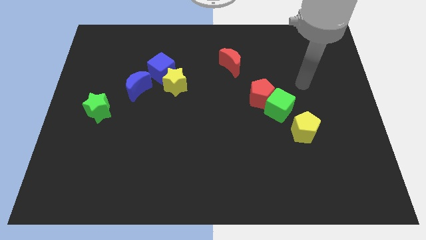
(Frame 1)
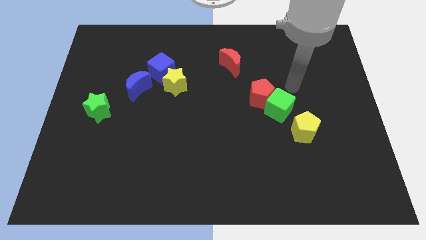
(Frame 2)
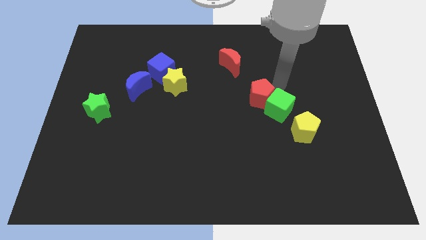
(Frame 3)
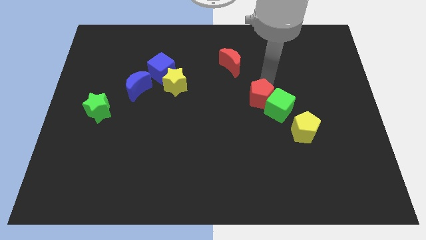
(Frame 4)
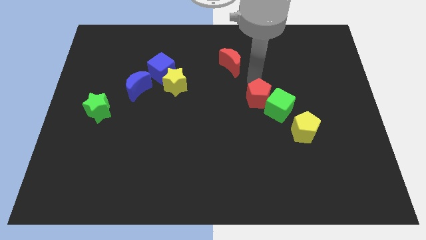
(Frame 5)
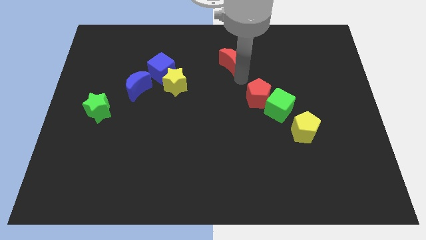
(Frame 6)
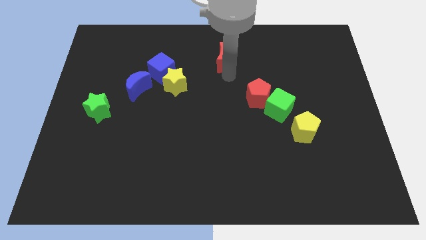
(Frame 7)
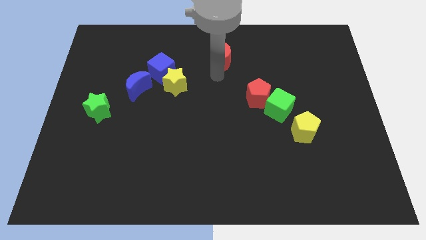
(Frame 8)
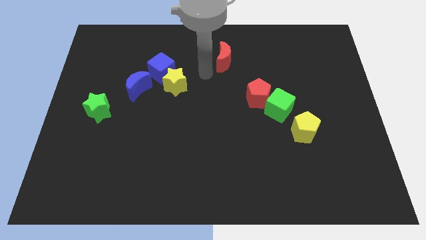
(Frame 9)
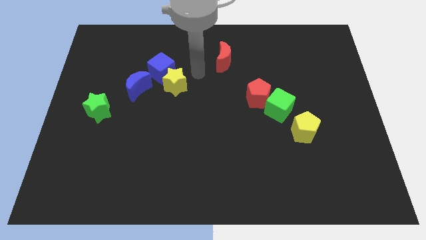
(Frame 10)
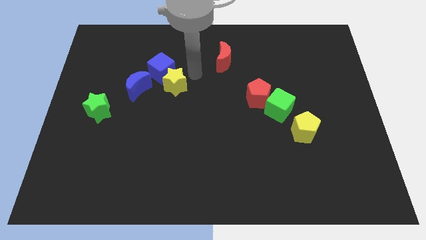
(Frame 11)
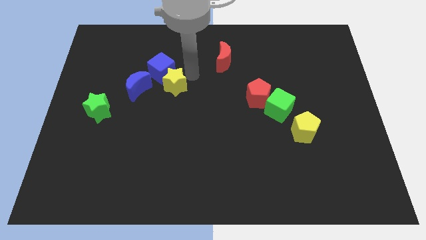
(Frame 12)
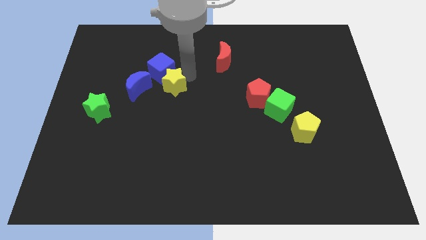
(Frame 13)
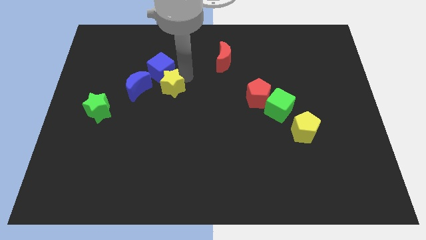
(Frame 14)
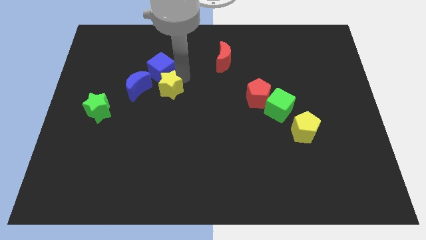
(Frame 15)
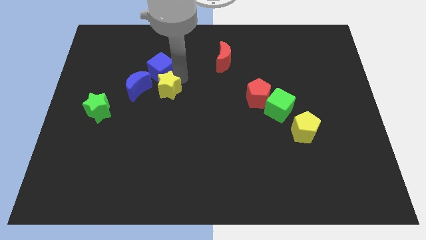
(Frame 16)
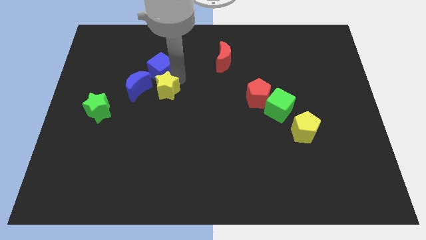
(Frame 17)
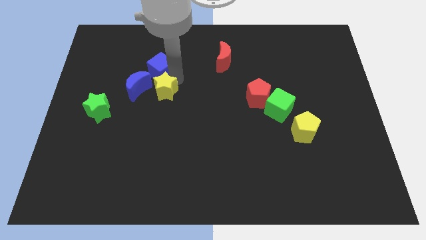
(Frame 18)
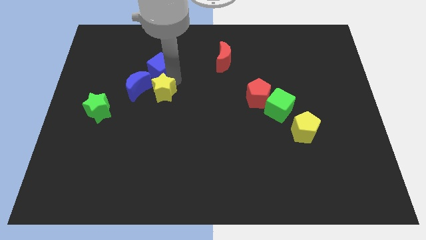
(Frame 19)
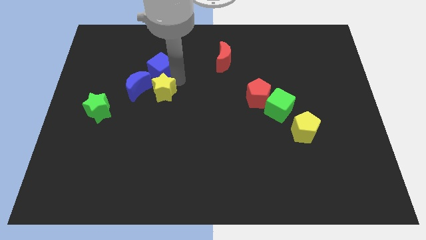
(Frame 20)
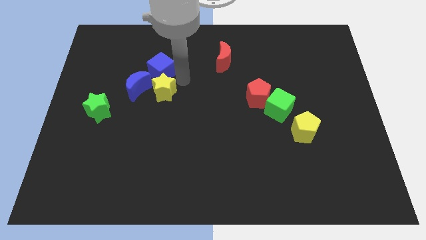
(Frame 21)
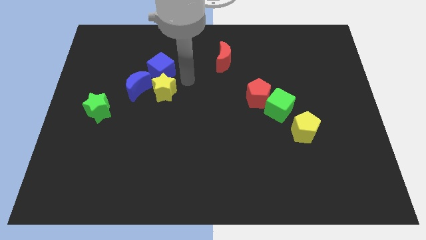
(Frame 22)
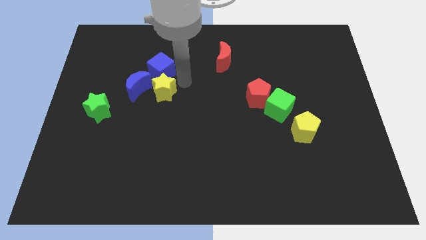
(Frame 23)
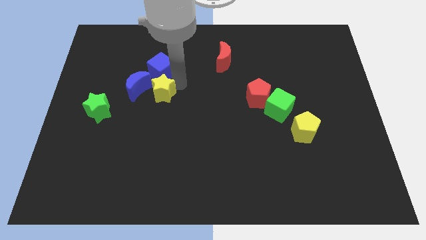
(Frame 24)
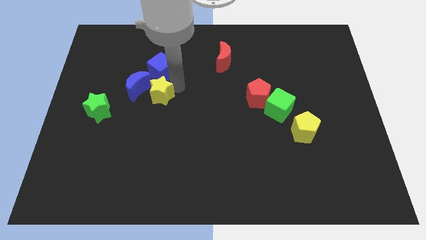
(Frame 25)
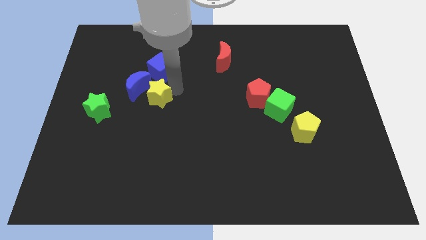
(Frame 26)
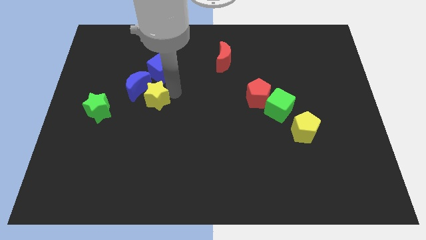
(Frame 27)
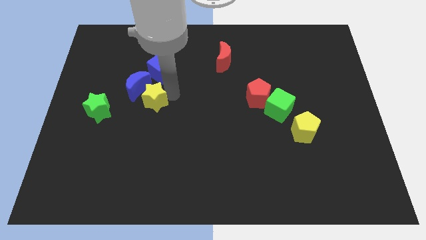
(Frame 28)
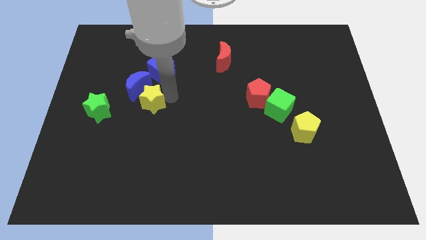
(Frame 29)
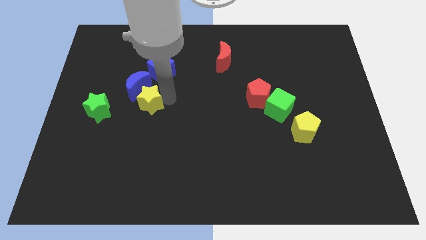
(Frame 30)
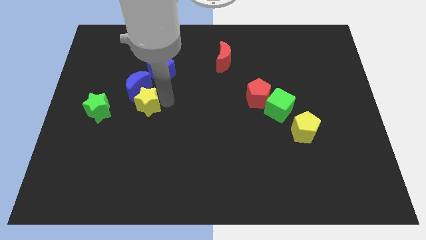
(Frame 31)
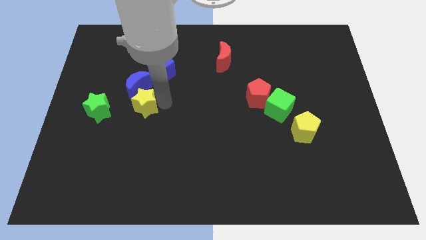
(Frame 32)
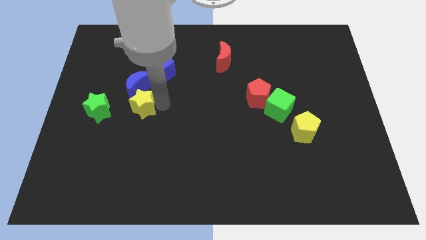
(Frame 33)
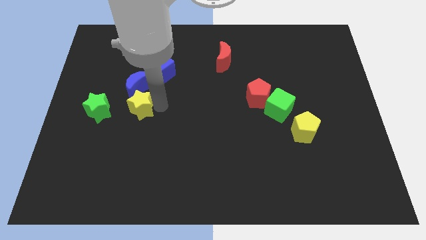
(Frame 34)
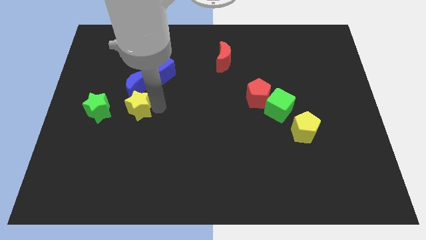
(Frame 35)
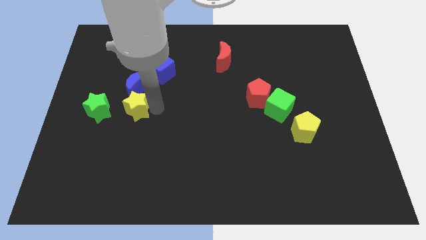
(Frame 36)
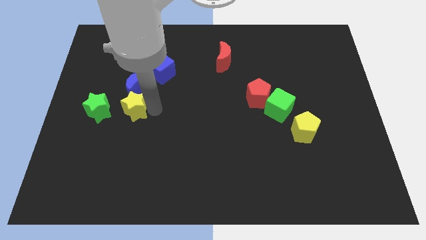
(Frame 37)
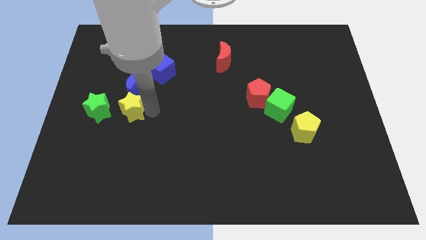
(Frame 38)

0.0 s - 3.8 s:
move the yellow star a little bit left

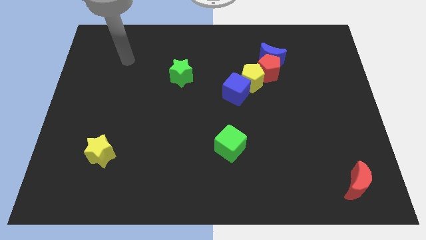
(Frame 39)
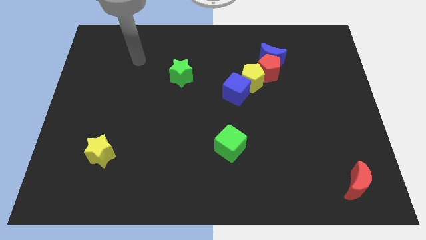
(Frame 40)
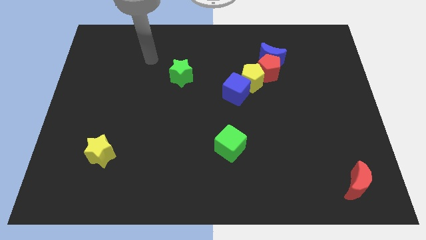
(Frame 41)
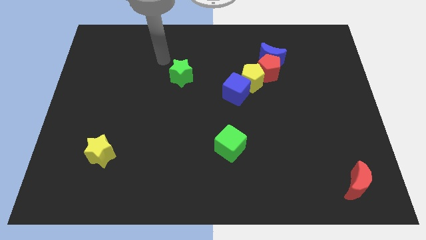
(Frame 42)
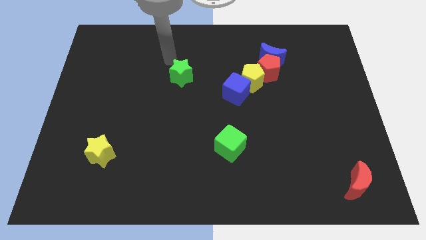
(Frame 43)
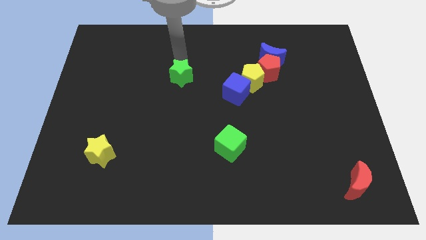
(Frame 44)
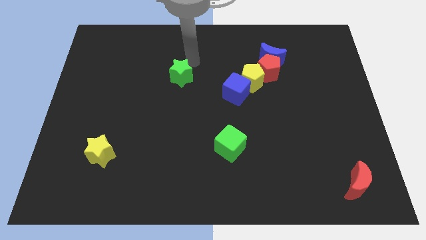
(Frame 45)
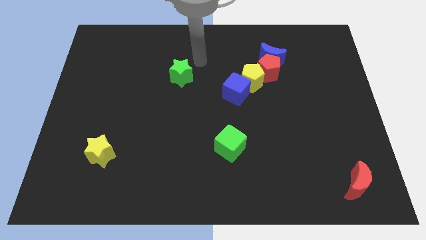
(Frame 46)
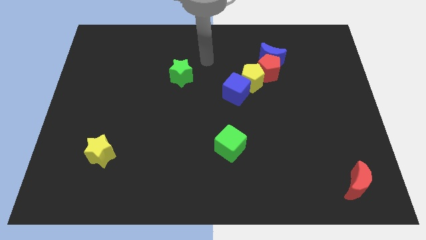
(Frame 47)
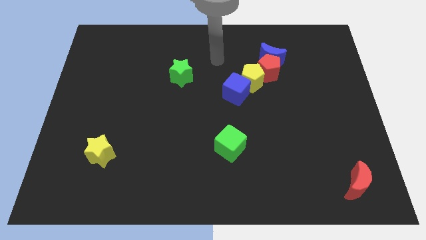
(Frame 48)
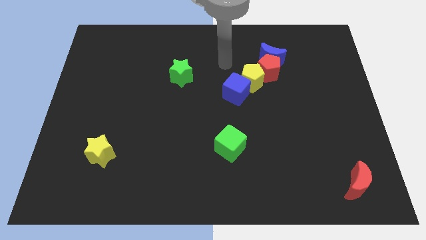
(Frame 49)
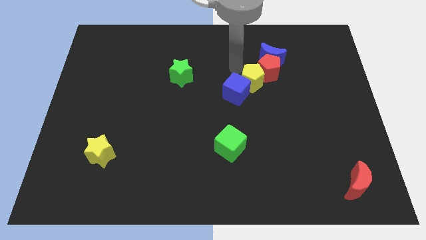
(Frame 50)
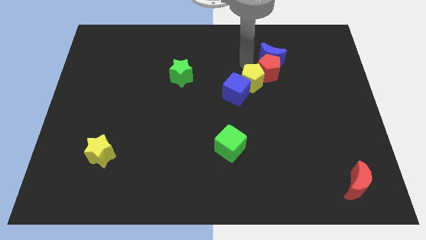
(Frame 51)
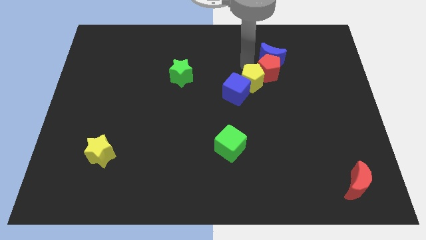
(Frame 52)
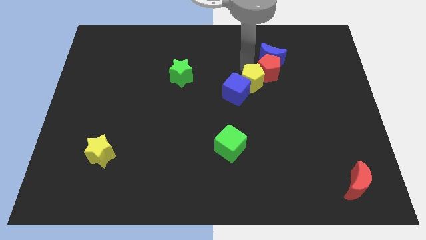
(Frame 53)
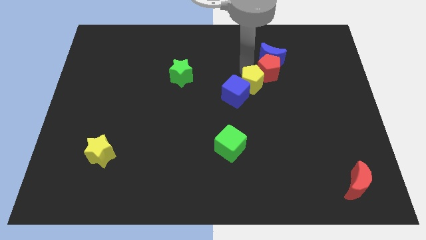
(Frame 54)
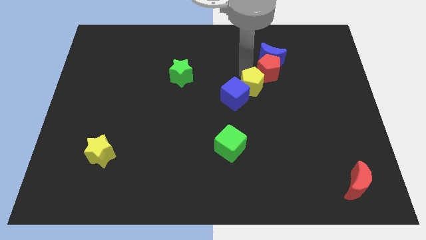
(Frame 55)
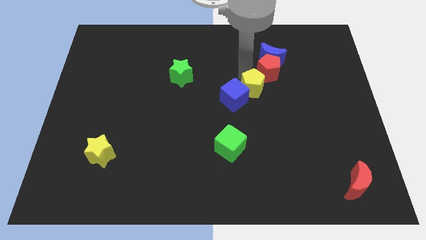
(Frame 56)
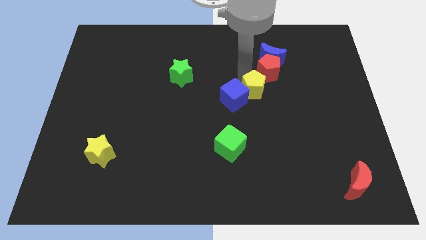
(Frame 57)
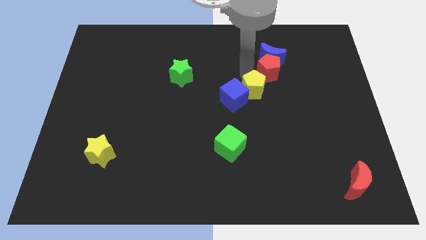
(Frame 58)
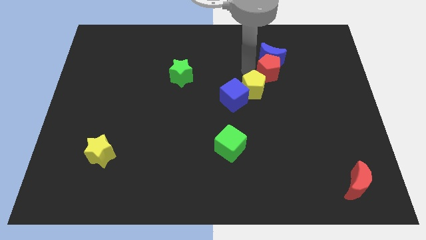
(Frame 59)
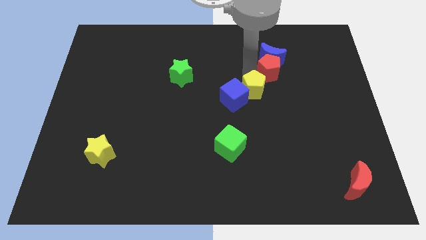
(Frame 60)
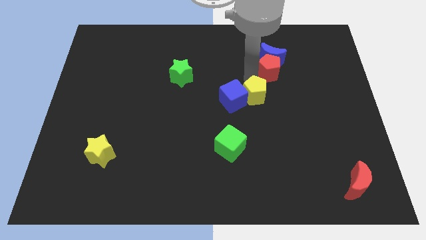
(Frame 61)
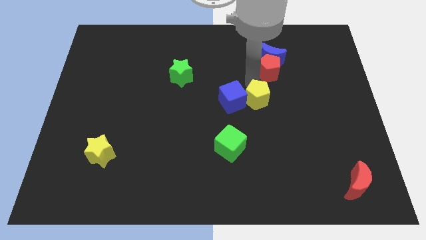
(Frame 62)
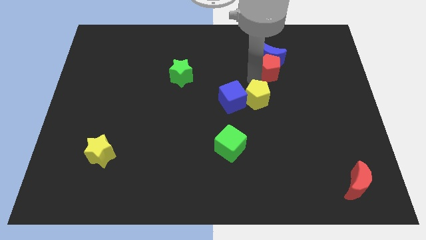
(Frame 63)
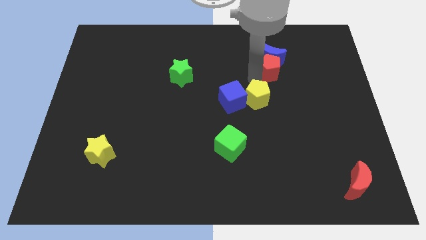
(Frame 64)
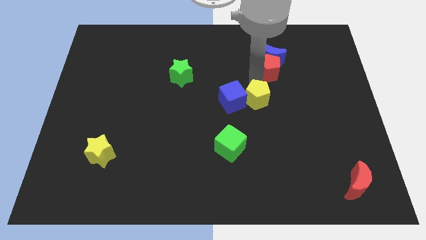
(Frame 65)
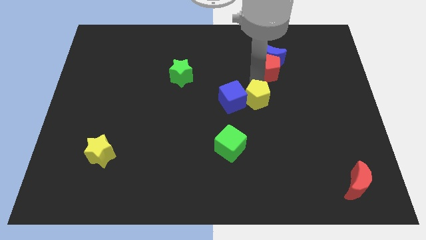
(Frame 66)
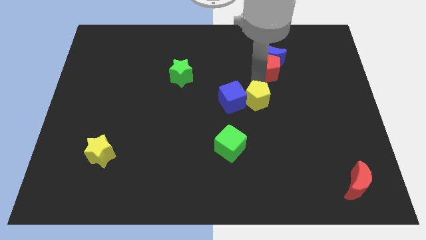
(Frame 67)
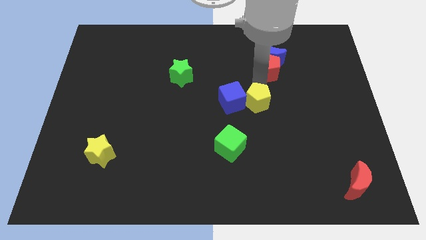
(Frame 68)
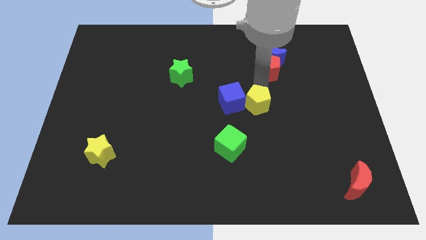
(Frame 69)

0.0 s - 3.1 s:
move the yellow pentagon somewhat down

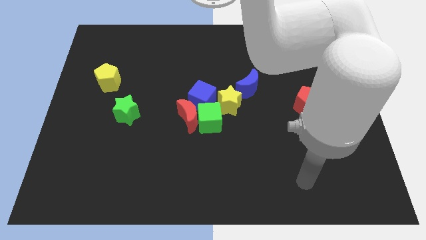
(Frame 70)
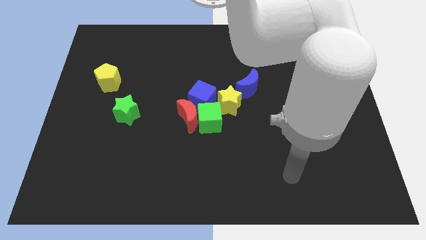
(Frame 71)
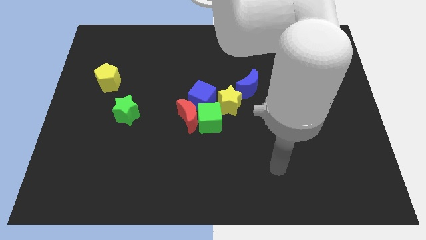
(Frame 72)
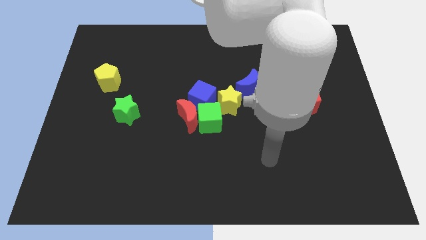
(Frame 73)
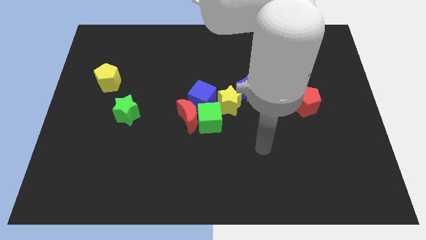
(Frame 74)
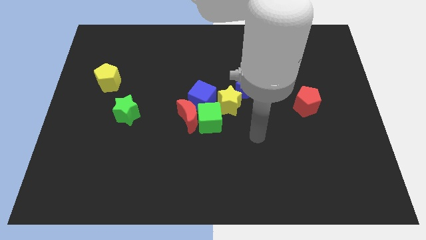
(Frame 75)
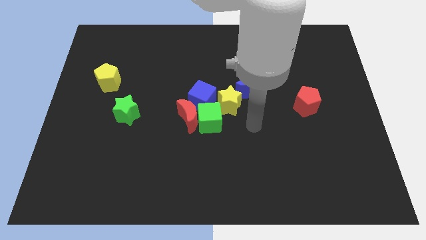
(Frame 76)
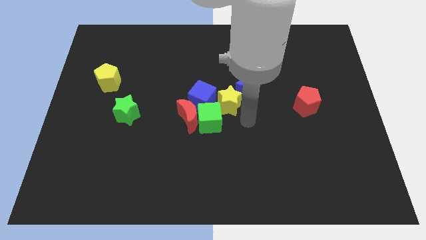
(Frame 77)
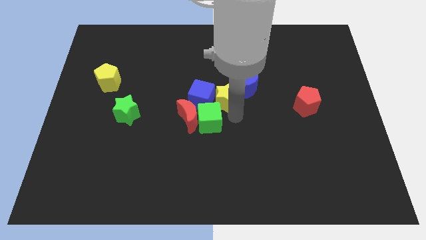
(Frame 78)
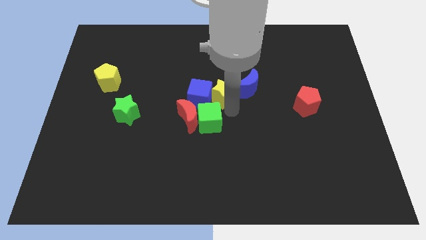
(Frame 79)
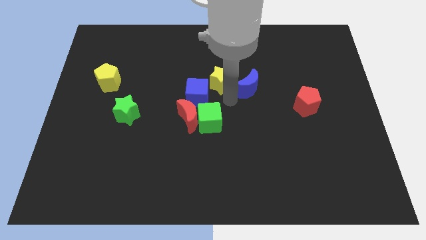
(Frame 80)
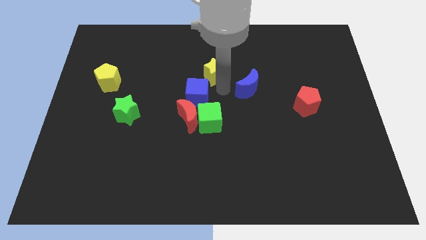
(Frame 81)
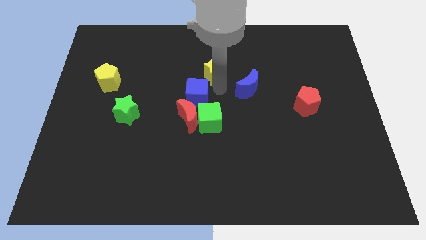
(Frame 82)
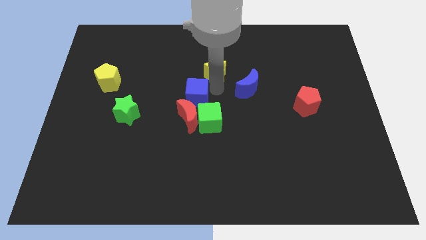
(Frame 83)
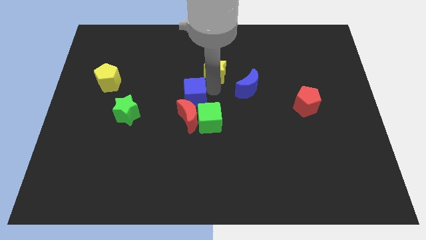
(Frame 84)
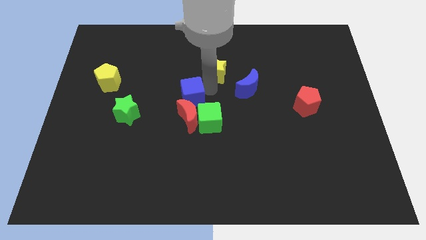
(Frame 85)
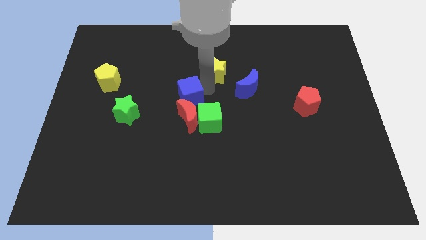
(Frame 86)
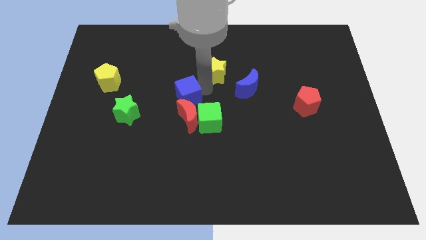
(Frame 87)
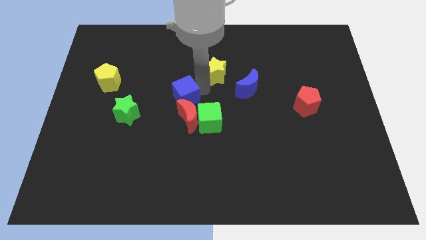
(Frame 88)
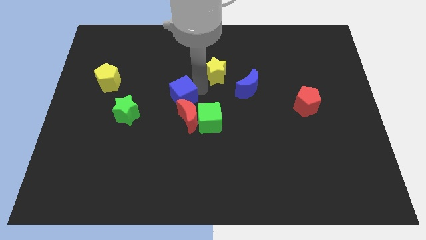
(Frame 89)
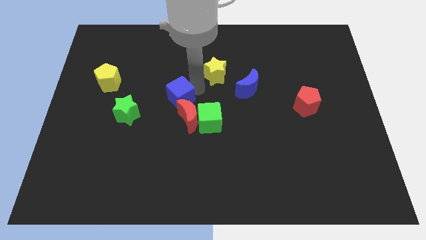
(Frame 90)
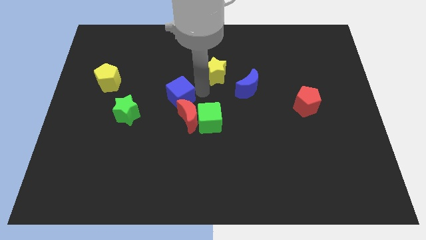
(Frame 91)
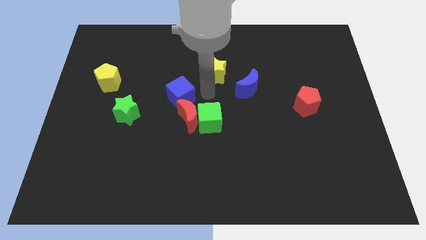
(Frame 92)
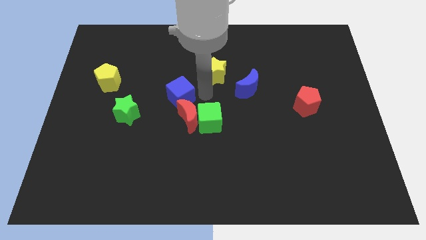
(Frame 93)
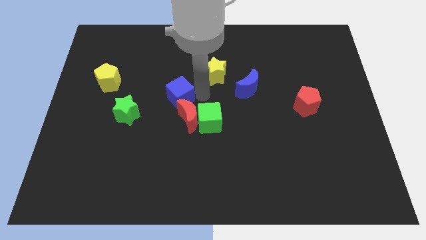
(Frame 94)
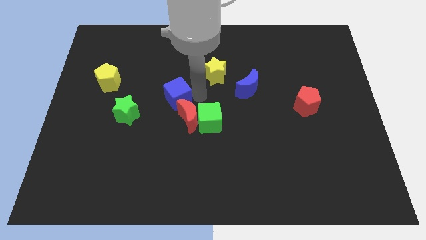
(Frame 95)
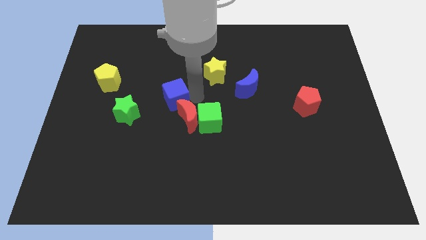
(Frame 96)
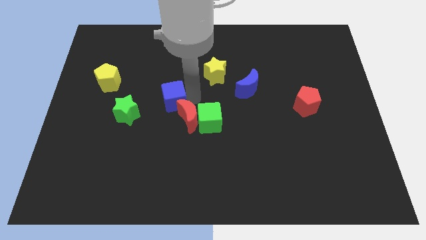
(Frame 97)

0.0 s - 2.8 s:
slide the blue cube a little bit left
